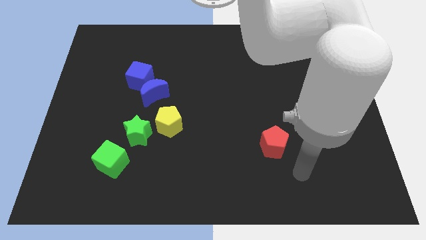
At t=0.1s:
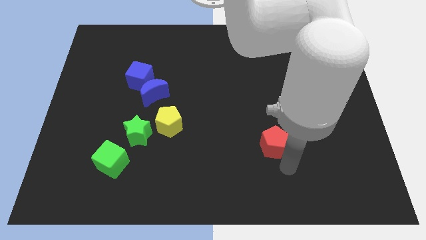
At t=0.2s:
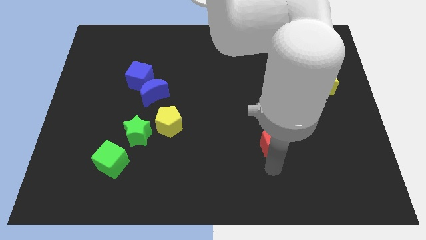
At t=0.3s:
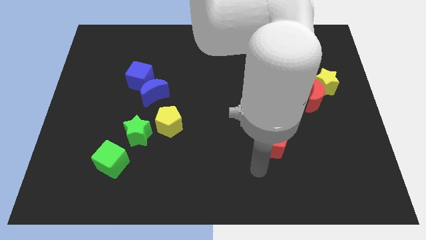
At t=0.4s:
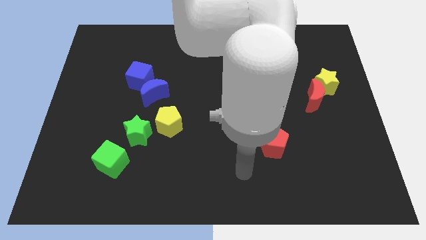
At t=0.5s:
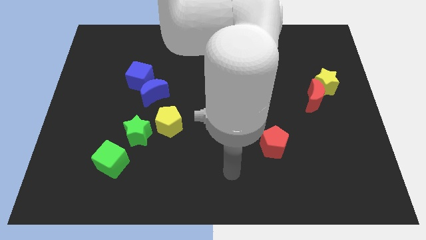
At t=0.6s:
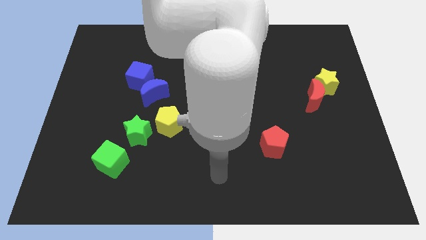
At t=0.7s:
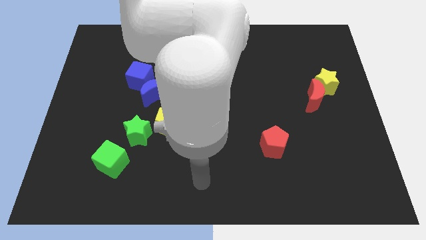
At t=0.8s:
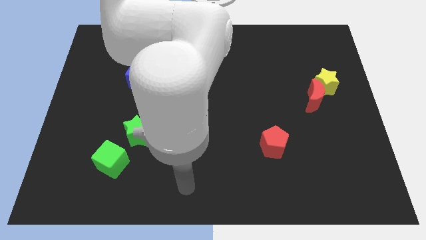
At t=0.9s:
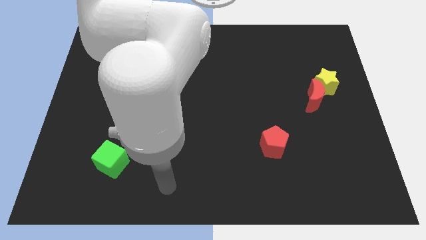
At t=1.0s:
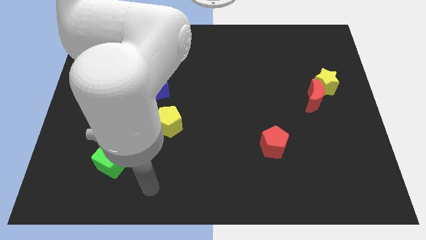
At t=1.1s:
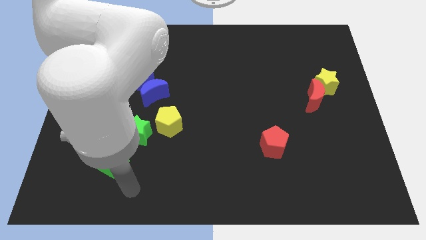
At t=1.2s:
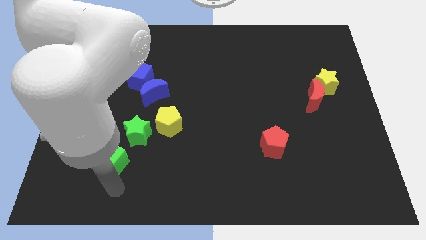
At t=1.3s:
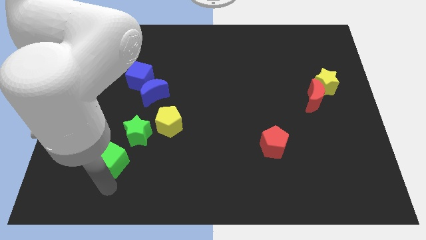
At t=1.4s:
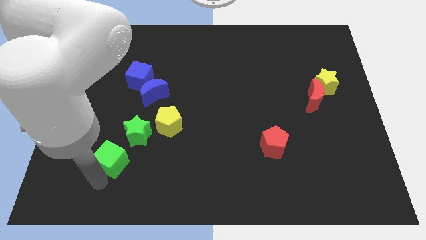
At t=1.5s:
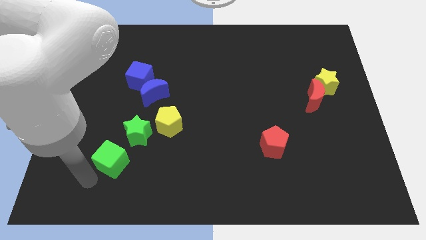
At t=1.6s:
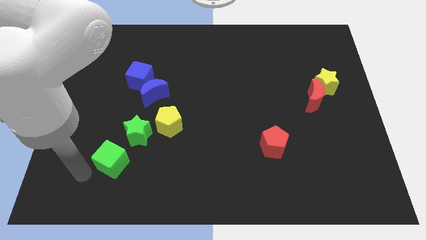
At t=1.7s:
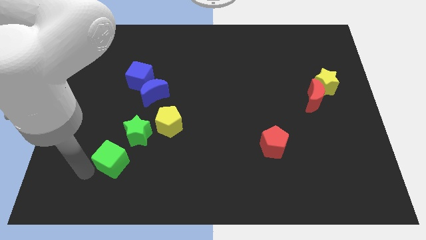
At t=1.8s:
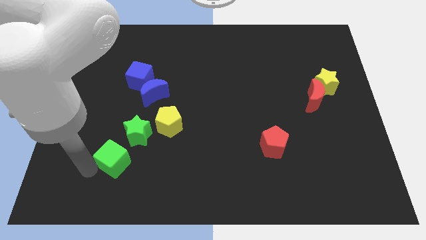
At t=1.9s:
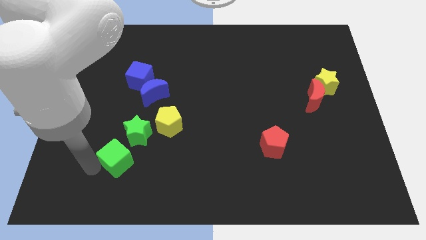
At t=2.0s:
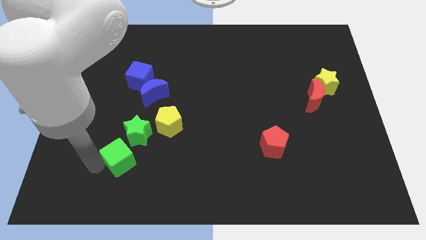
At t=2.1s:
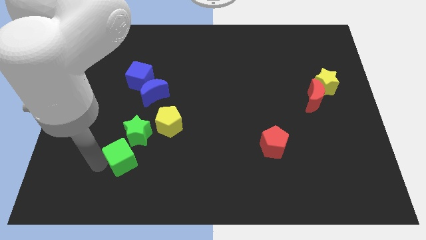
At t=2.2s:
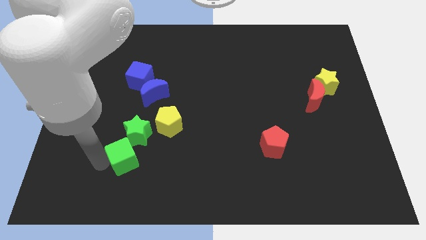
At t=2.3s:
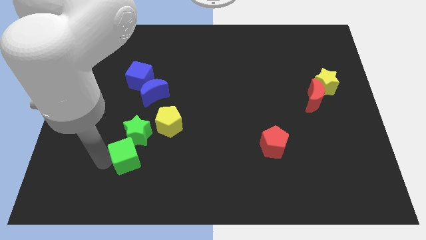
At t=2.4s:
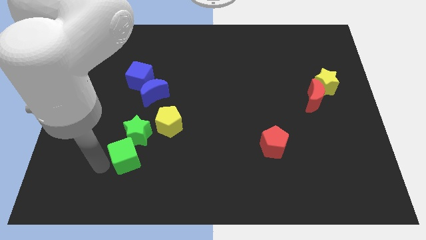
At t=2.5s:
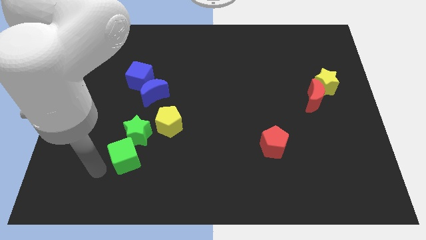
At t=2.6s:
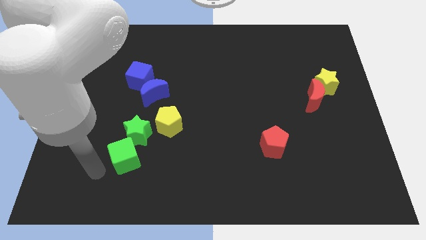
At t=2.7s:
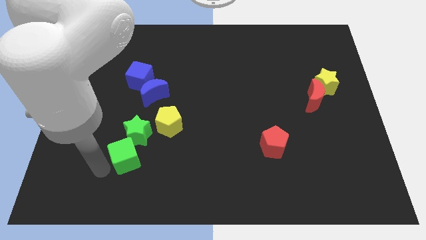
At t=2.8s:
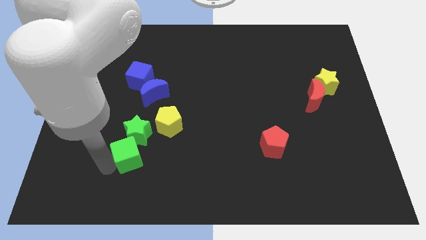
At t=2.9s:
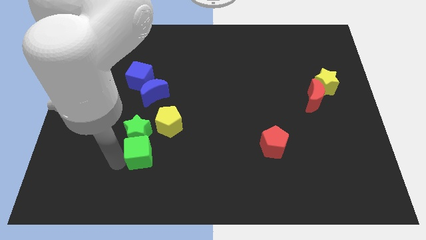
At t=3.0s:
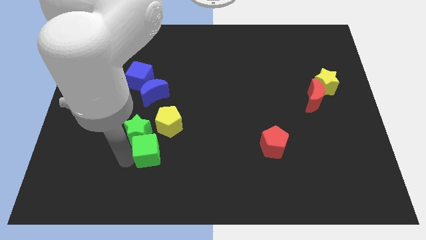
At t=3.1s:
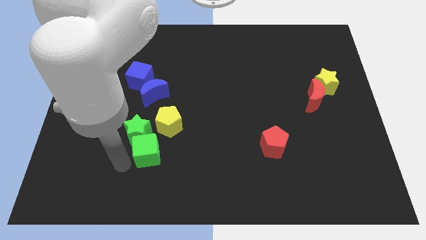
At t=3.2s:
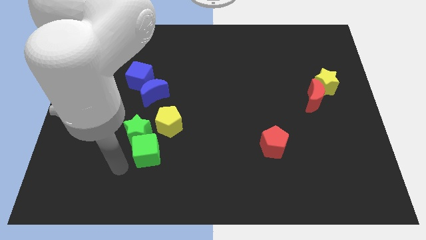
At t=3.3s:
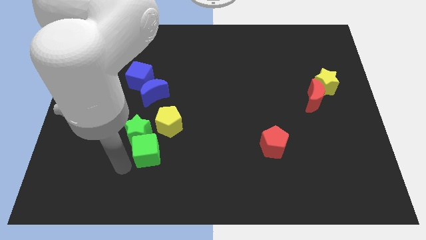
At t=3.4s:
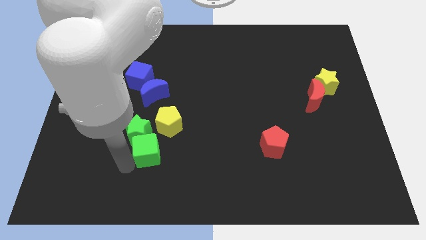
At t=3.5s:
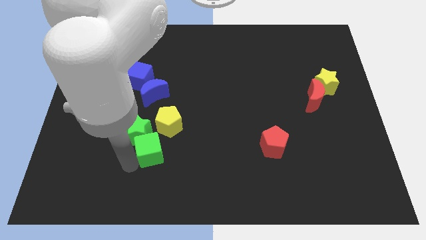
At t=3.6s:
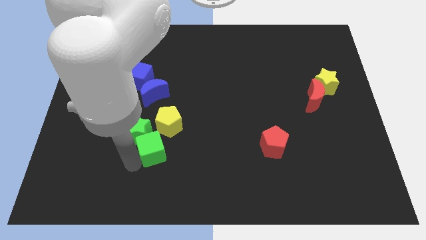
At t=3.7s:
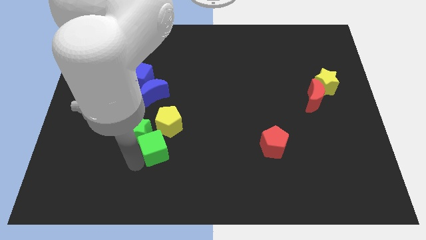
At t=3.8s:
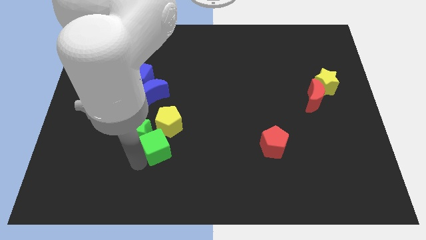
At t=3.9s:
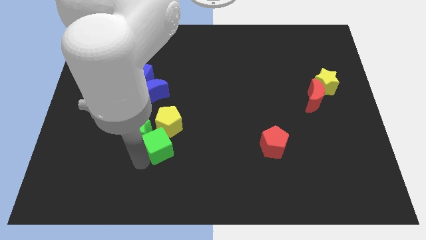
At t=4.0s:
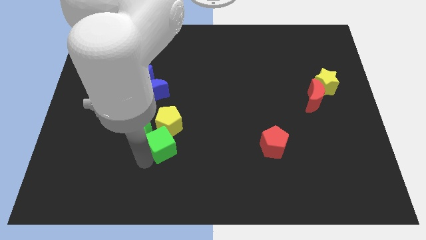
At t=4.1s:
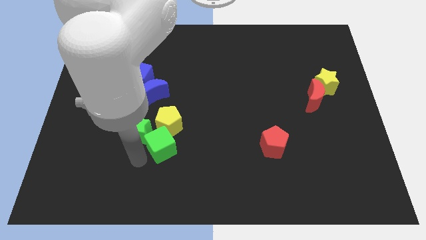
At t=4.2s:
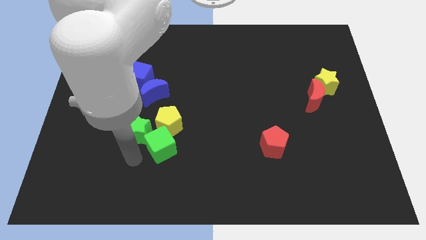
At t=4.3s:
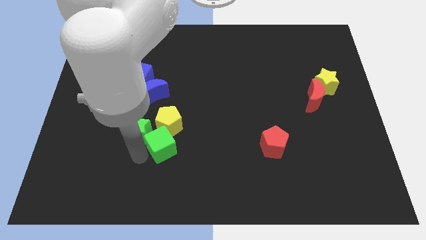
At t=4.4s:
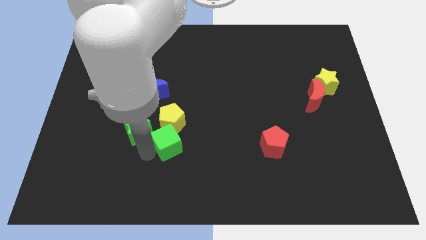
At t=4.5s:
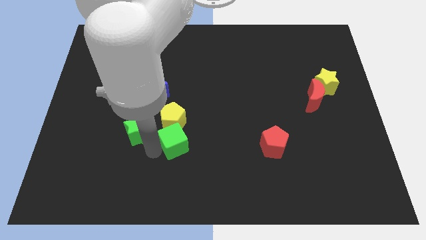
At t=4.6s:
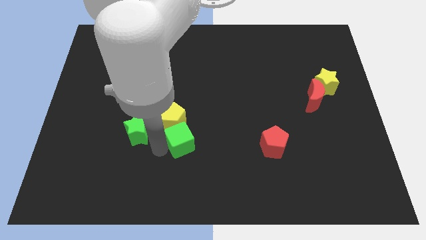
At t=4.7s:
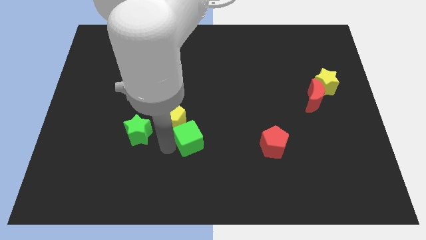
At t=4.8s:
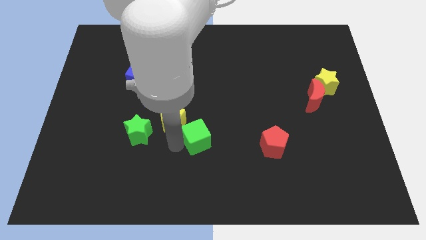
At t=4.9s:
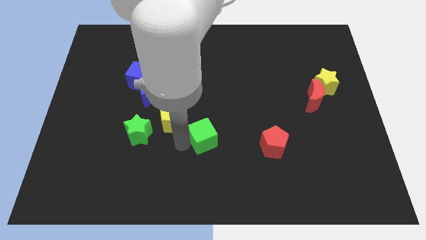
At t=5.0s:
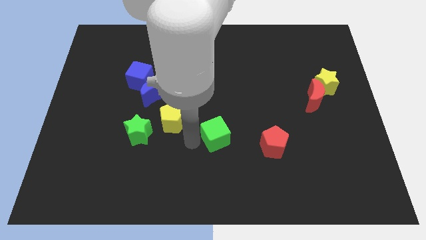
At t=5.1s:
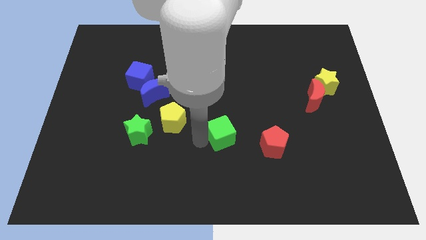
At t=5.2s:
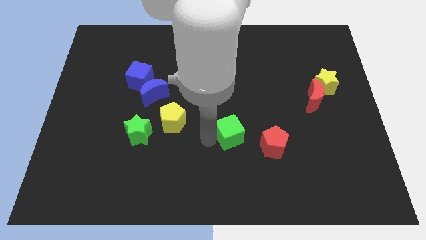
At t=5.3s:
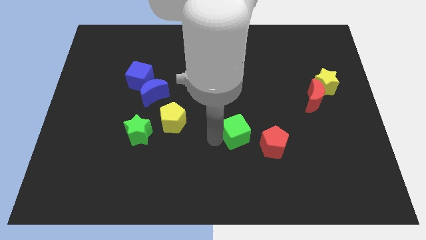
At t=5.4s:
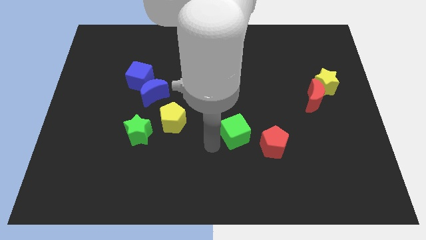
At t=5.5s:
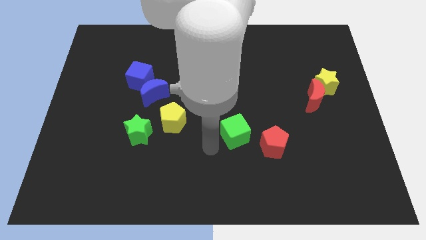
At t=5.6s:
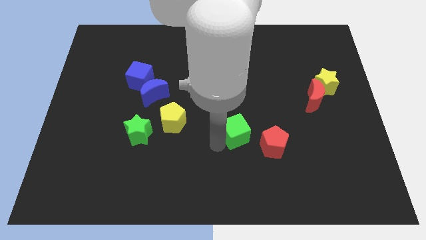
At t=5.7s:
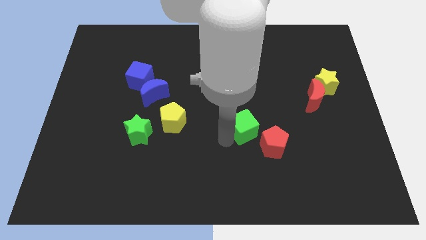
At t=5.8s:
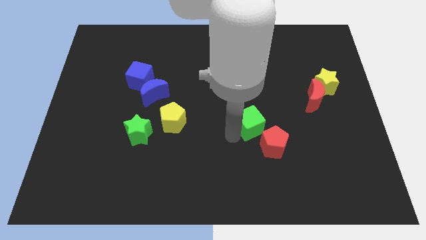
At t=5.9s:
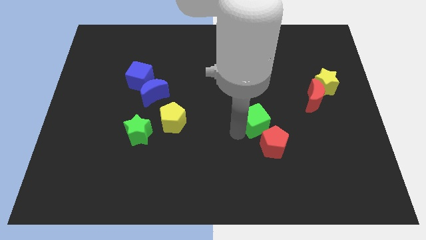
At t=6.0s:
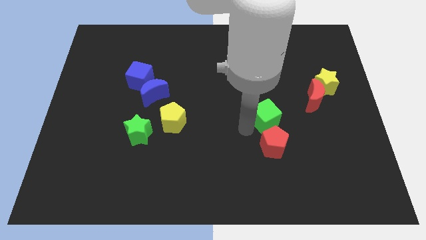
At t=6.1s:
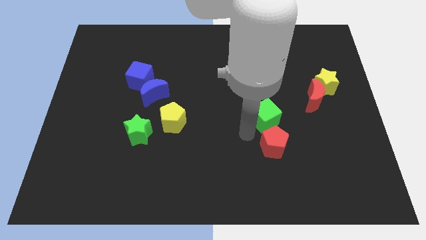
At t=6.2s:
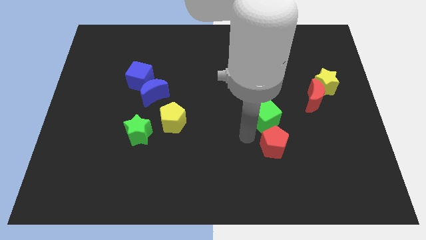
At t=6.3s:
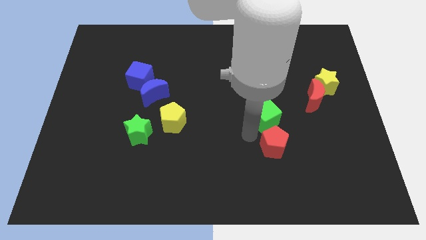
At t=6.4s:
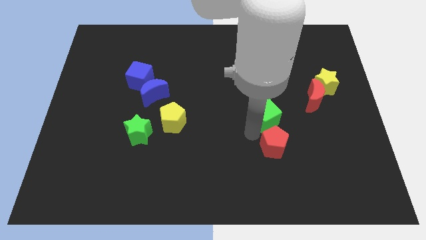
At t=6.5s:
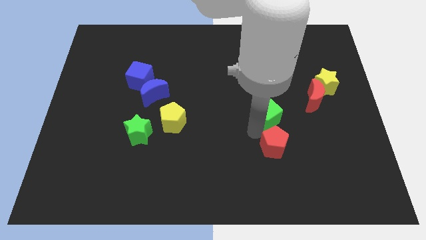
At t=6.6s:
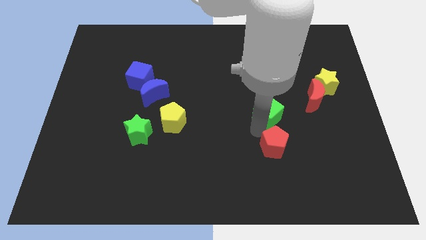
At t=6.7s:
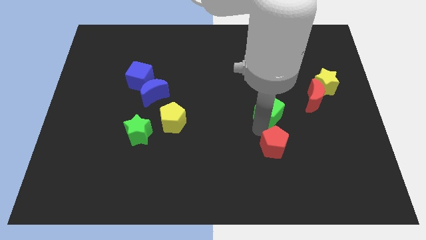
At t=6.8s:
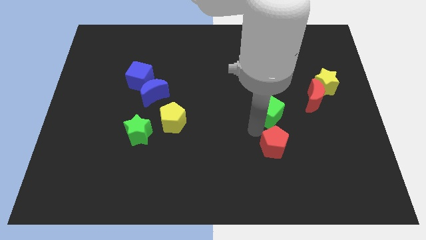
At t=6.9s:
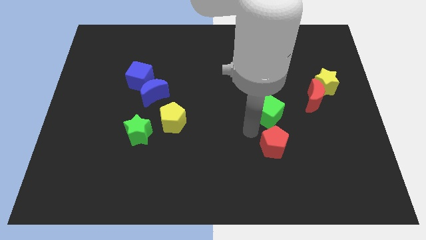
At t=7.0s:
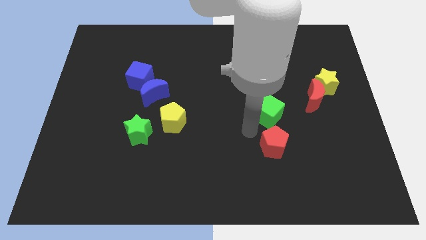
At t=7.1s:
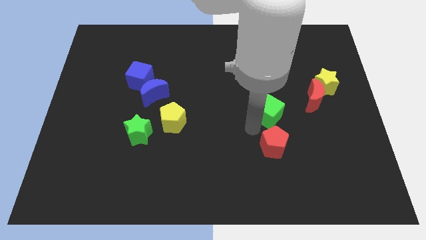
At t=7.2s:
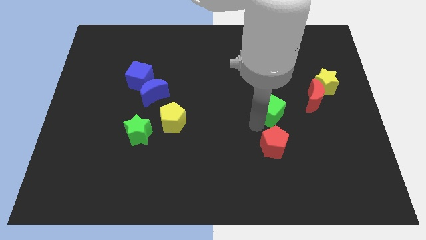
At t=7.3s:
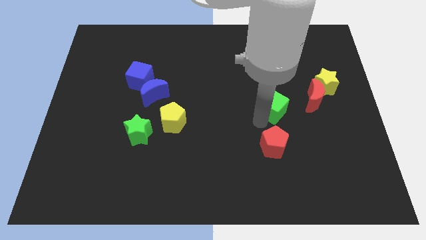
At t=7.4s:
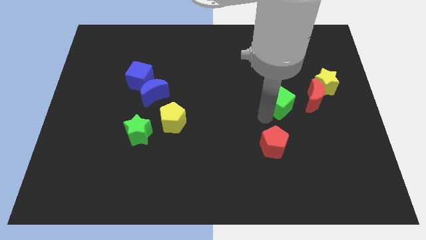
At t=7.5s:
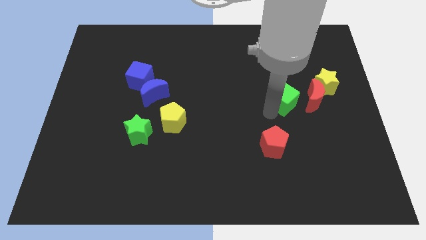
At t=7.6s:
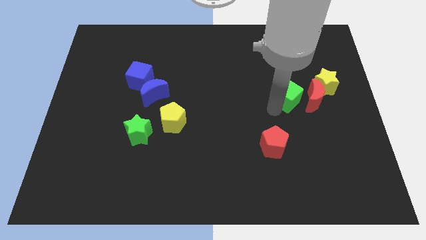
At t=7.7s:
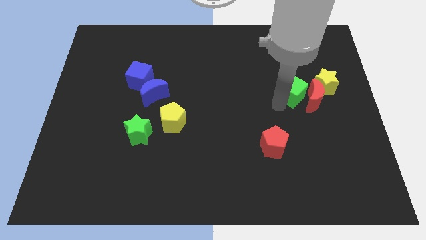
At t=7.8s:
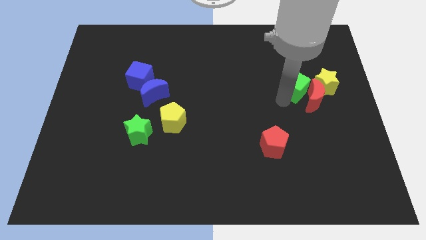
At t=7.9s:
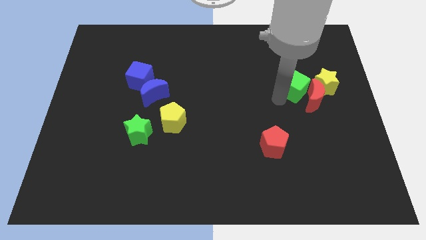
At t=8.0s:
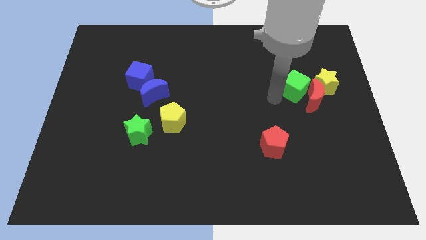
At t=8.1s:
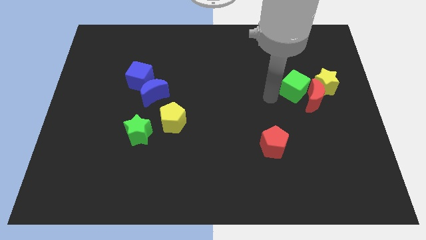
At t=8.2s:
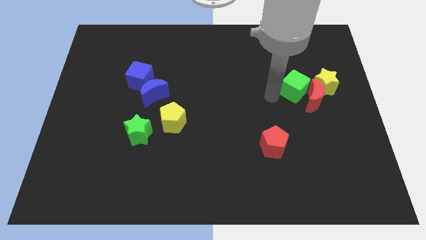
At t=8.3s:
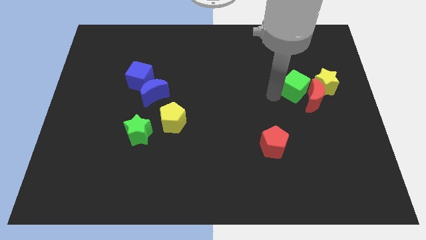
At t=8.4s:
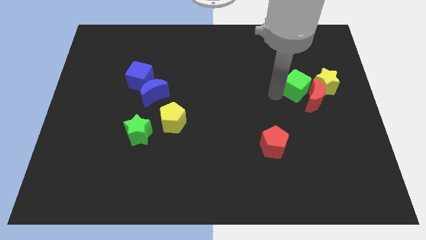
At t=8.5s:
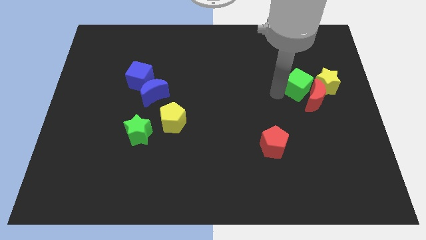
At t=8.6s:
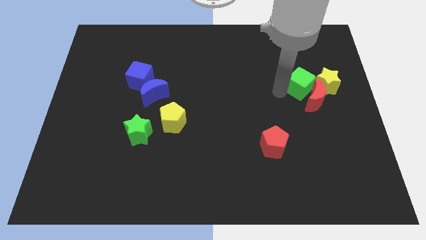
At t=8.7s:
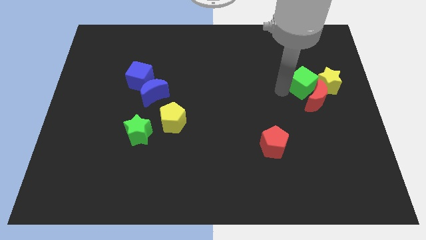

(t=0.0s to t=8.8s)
push the green cube close to the yellow star
